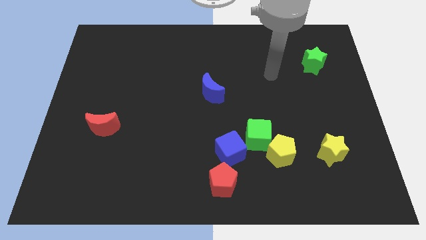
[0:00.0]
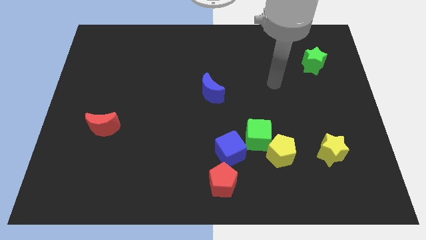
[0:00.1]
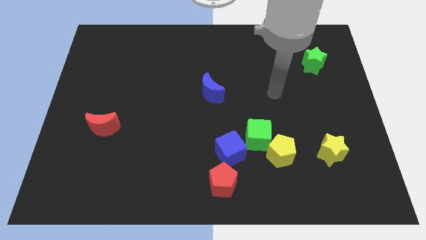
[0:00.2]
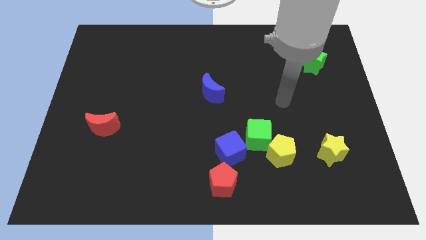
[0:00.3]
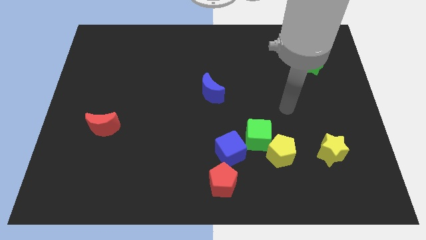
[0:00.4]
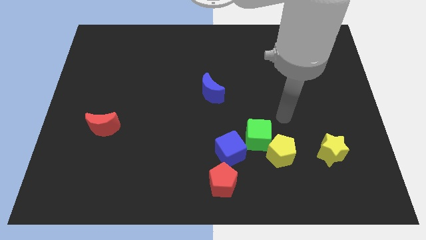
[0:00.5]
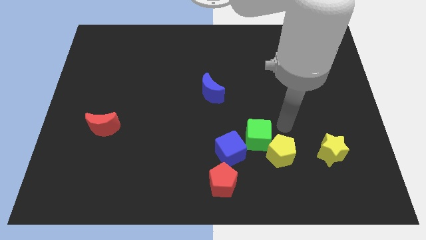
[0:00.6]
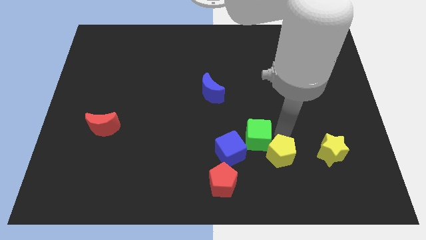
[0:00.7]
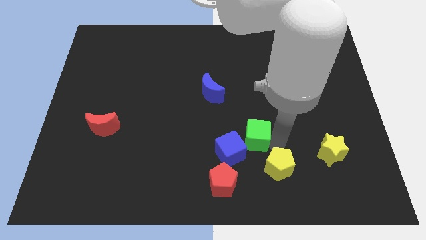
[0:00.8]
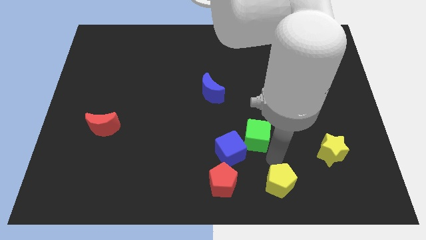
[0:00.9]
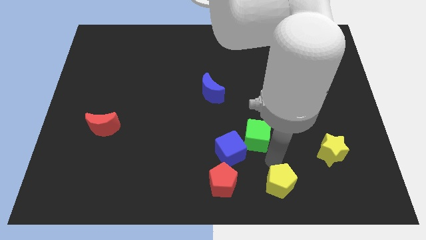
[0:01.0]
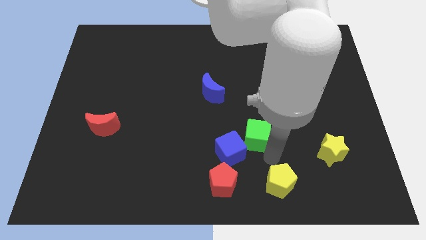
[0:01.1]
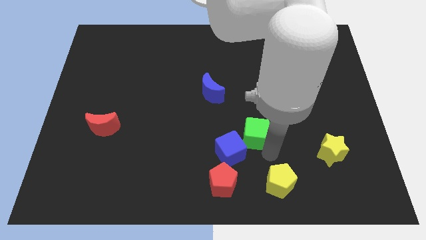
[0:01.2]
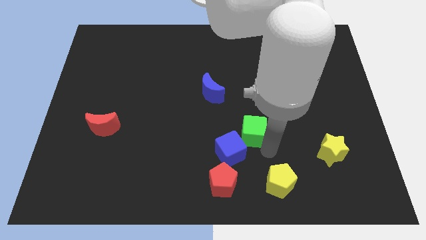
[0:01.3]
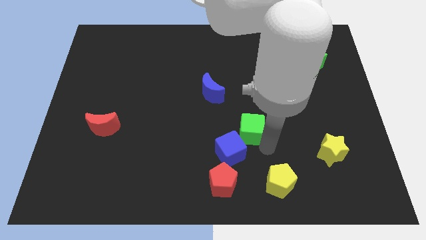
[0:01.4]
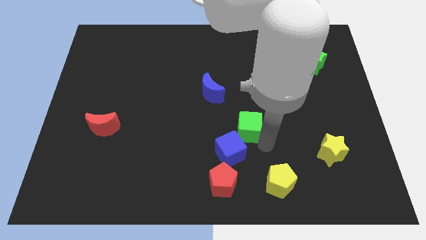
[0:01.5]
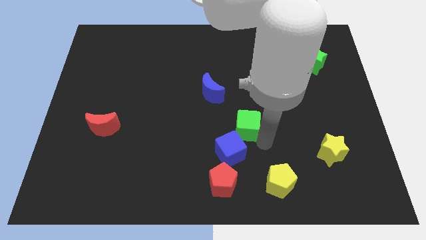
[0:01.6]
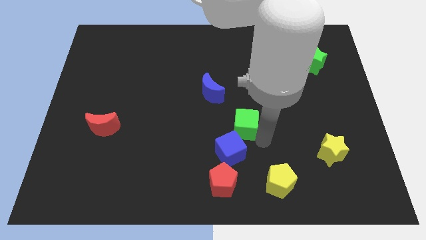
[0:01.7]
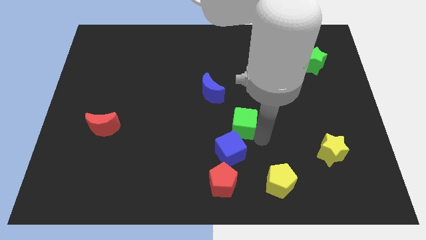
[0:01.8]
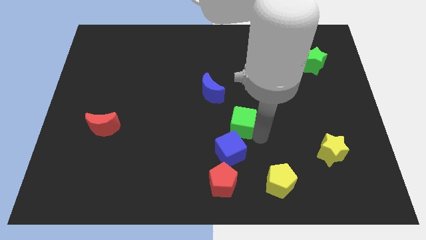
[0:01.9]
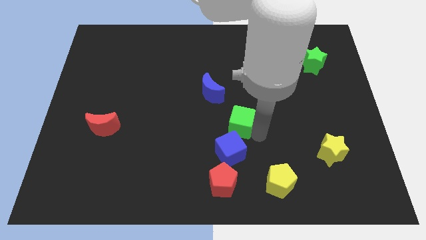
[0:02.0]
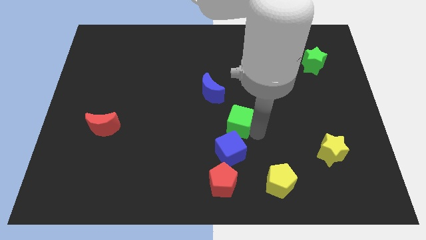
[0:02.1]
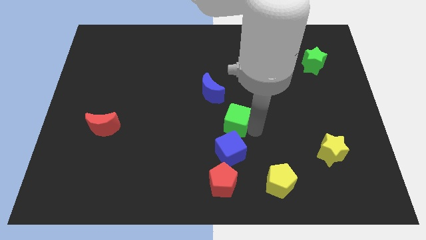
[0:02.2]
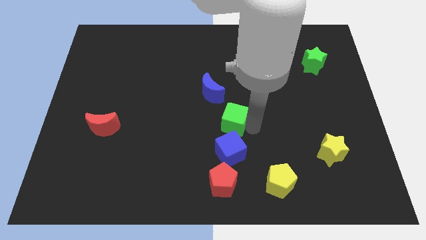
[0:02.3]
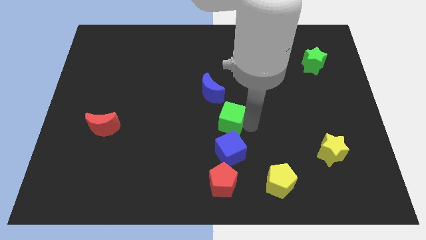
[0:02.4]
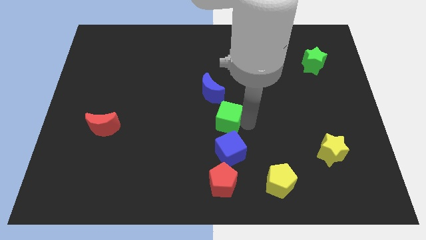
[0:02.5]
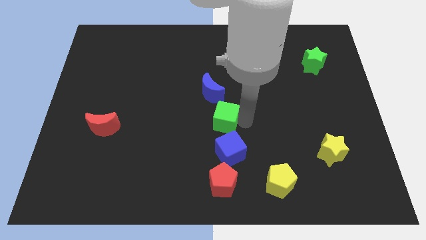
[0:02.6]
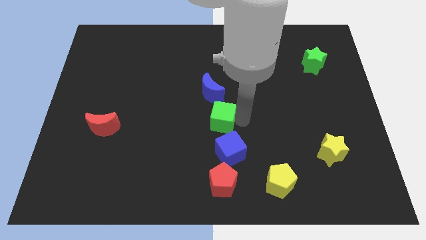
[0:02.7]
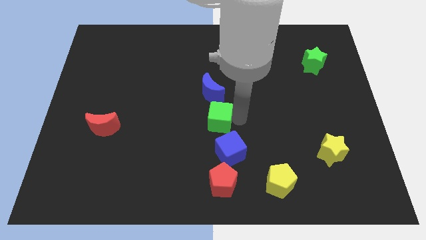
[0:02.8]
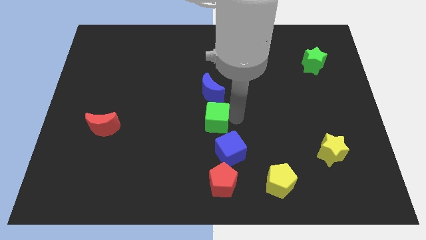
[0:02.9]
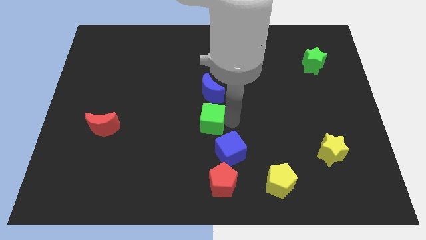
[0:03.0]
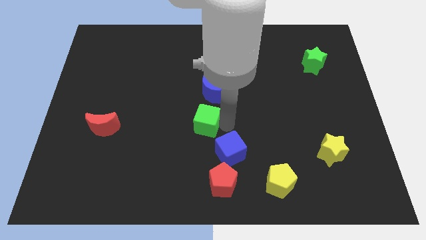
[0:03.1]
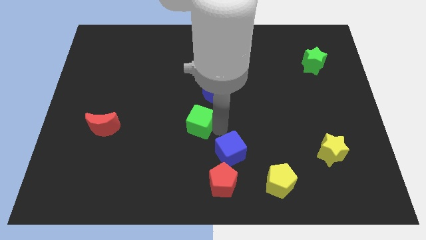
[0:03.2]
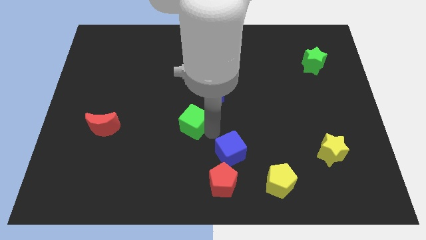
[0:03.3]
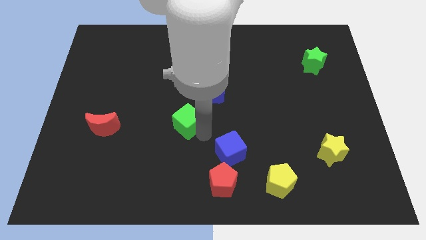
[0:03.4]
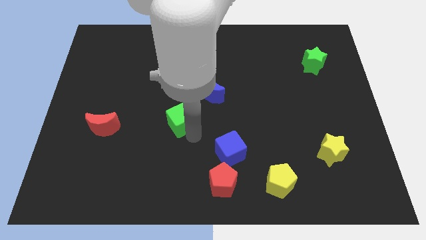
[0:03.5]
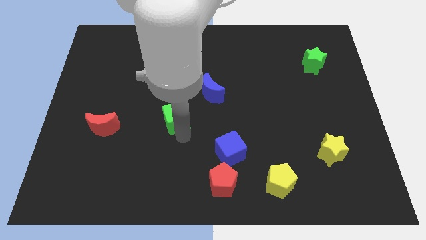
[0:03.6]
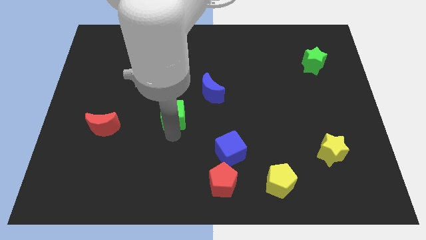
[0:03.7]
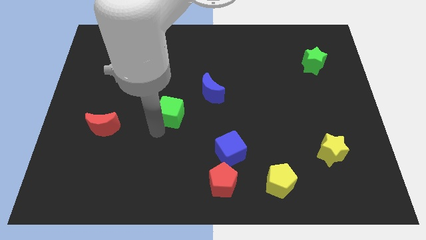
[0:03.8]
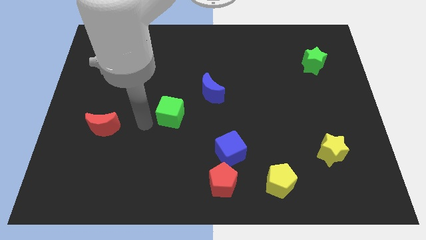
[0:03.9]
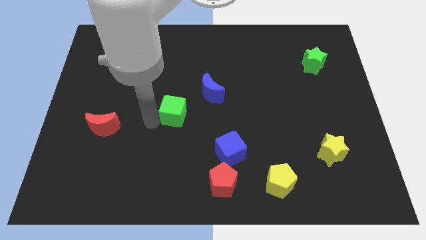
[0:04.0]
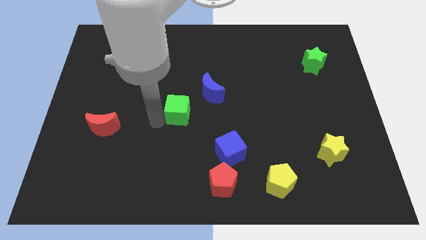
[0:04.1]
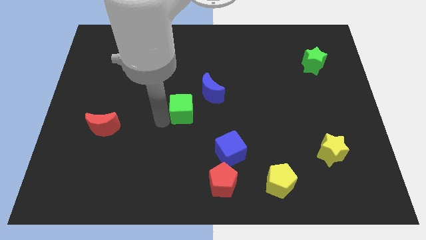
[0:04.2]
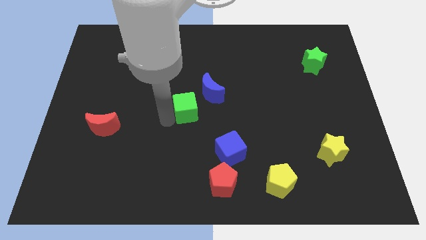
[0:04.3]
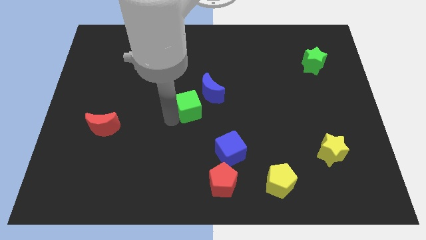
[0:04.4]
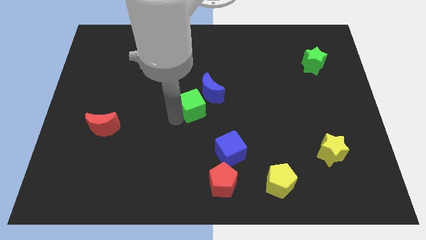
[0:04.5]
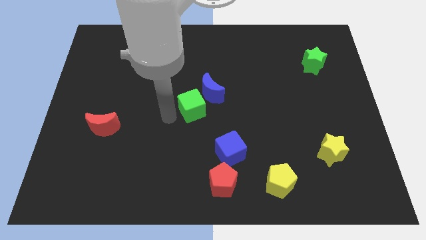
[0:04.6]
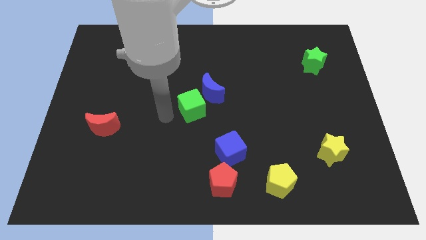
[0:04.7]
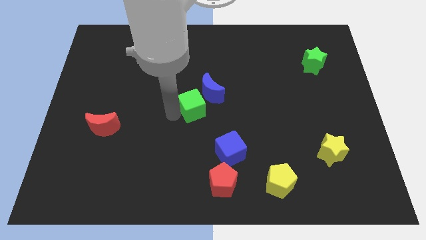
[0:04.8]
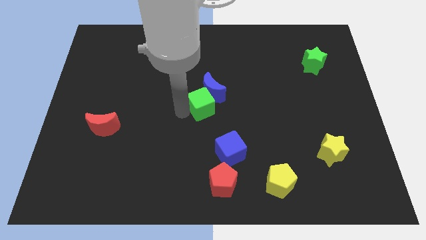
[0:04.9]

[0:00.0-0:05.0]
move the green cube next to the blue moon

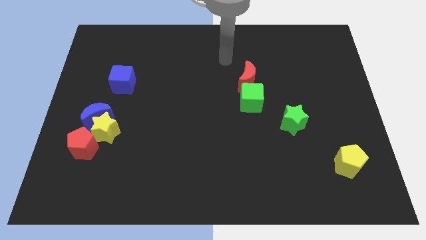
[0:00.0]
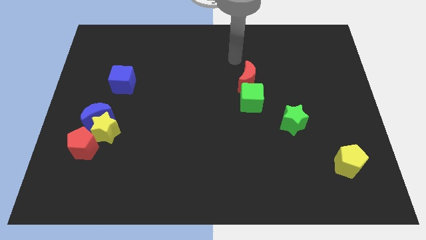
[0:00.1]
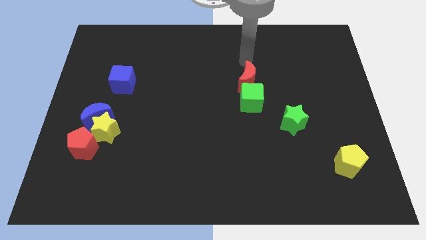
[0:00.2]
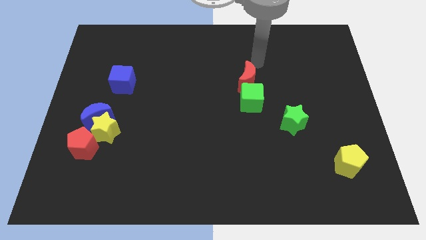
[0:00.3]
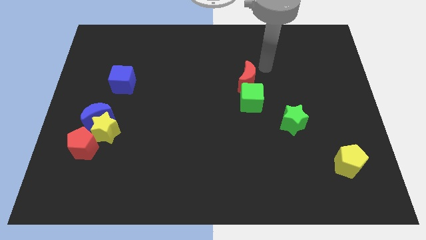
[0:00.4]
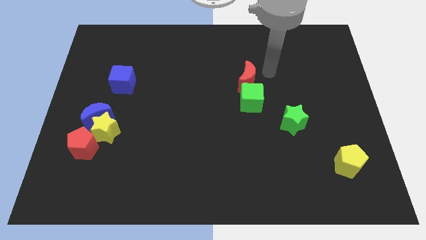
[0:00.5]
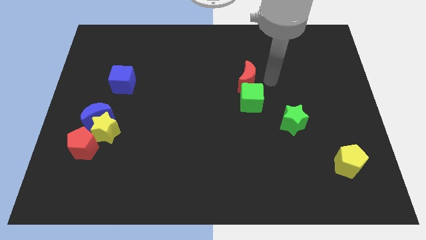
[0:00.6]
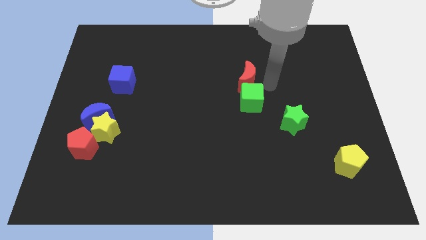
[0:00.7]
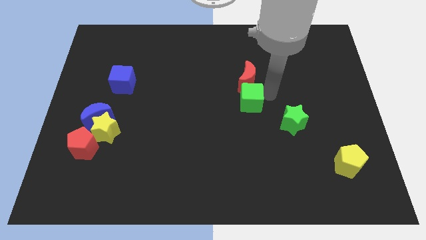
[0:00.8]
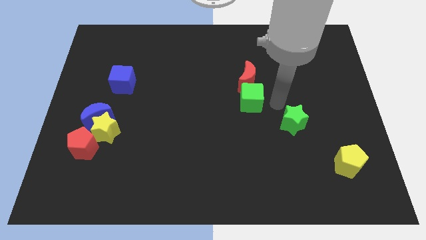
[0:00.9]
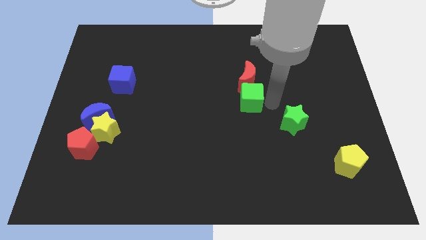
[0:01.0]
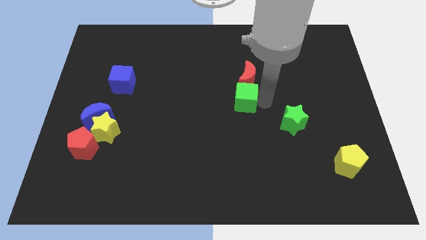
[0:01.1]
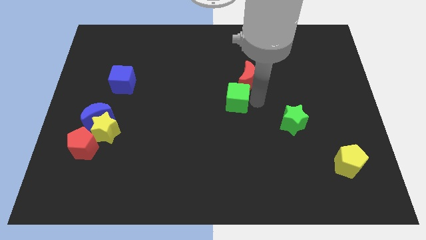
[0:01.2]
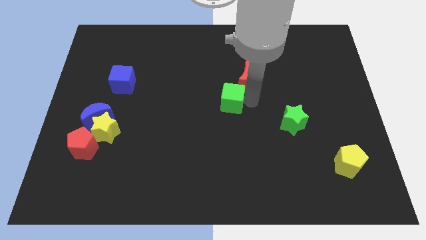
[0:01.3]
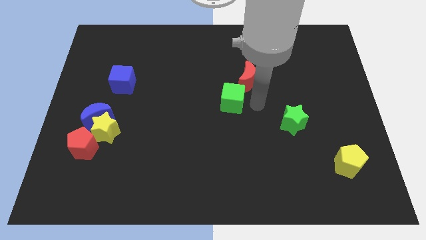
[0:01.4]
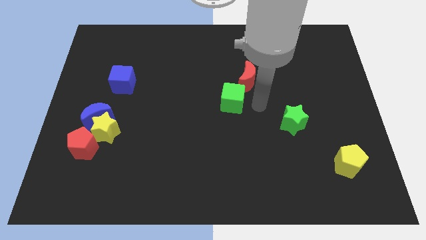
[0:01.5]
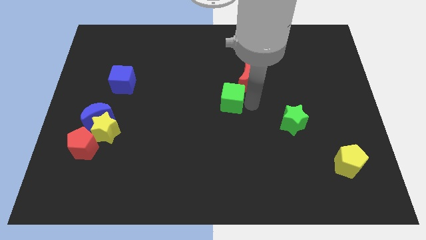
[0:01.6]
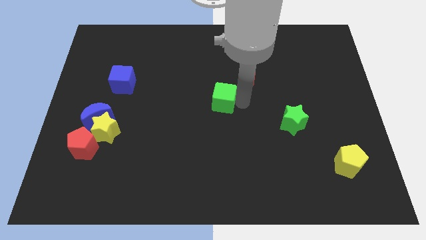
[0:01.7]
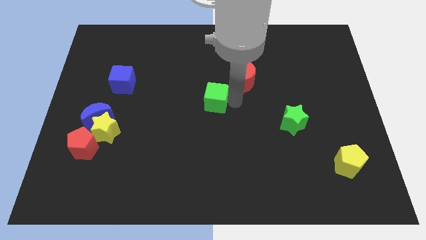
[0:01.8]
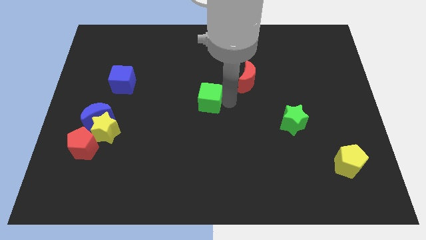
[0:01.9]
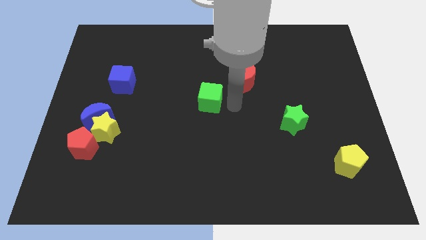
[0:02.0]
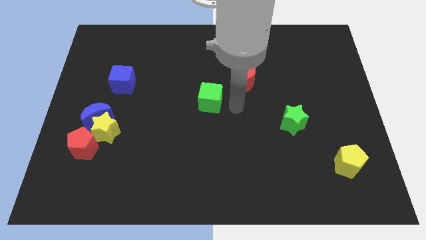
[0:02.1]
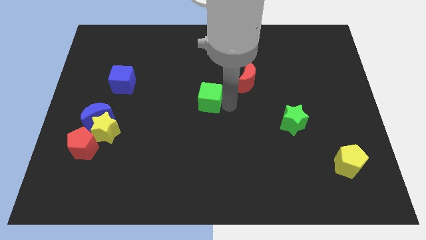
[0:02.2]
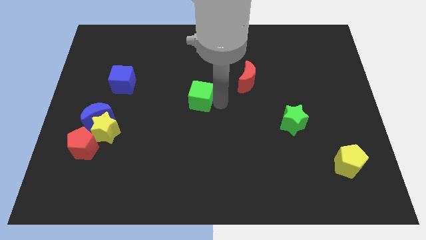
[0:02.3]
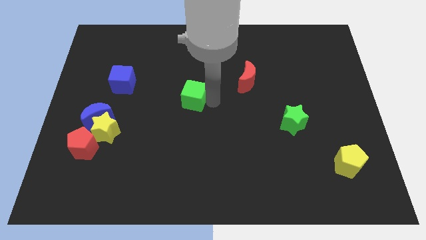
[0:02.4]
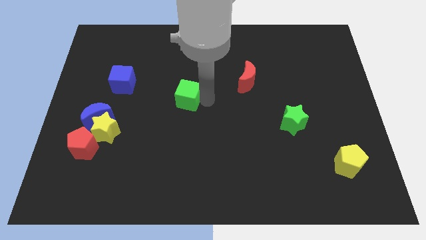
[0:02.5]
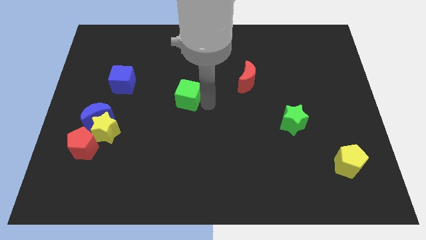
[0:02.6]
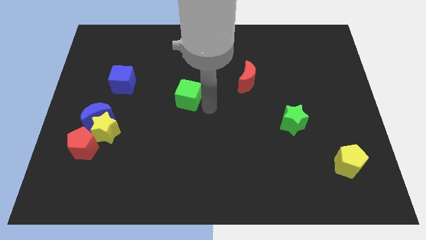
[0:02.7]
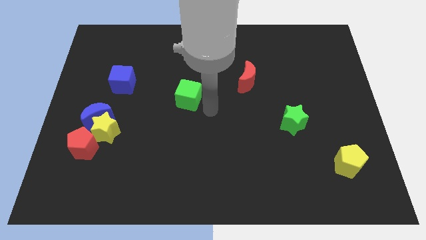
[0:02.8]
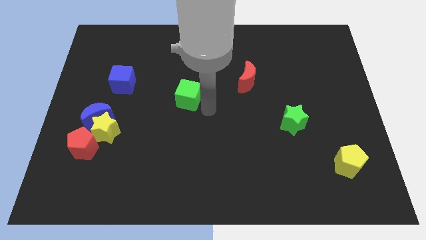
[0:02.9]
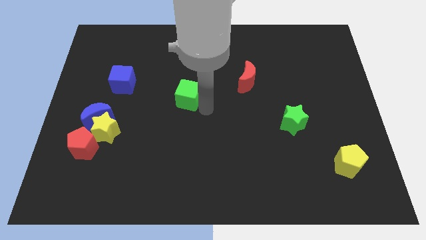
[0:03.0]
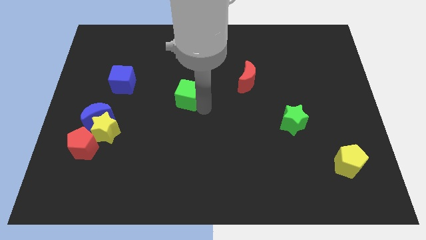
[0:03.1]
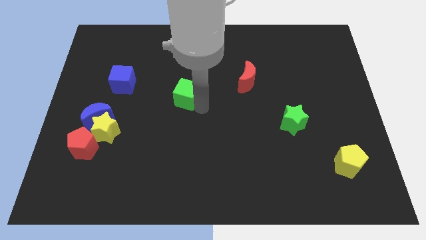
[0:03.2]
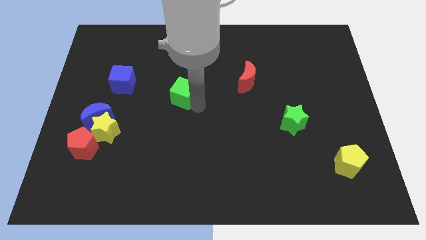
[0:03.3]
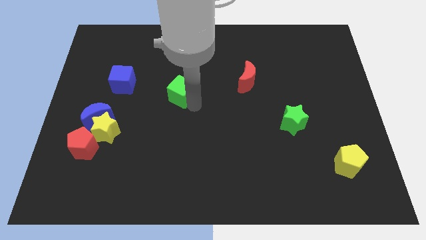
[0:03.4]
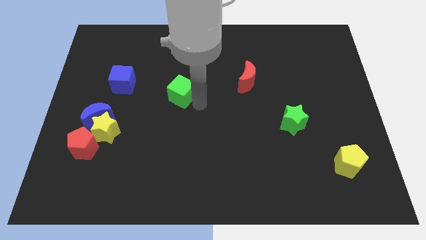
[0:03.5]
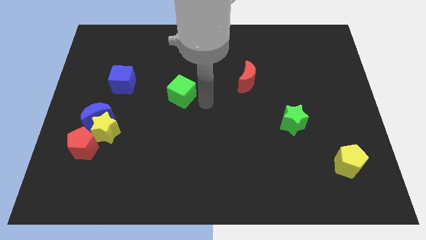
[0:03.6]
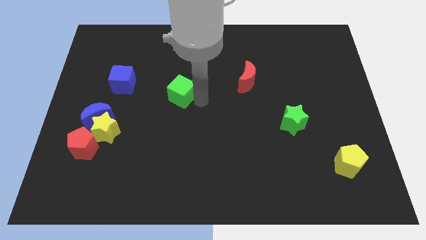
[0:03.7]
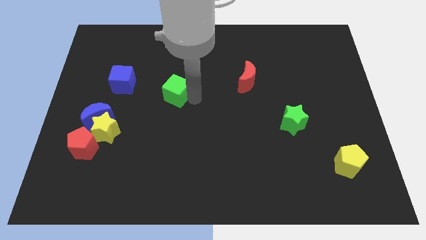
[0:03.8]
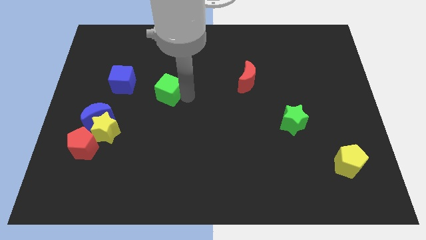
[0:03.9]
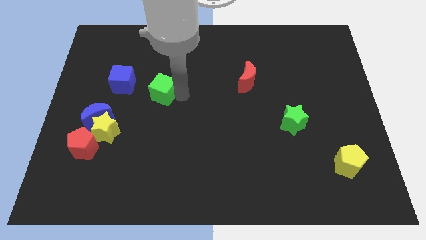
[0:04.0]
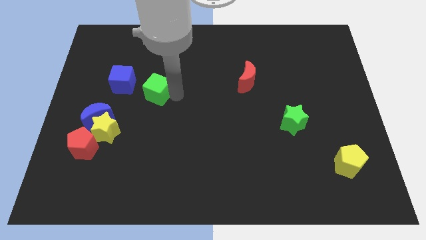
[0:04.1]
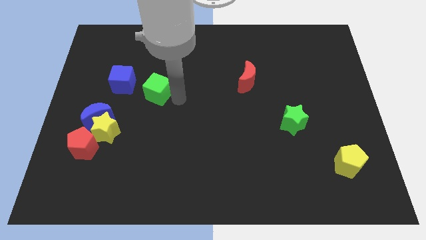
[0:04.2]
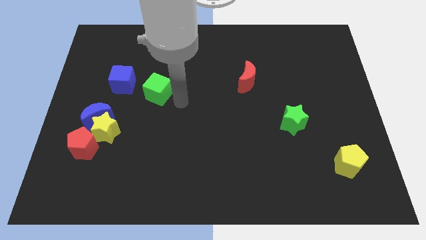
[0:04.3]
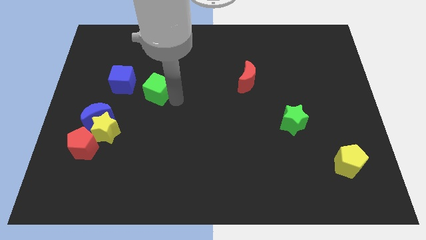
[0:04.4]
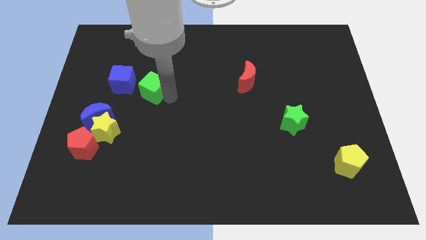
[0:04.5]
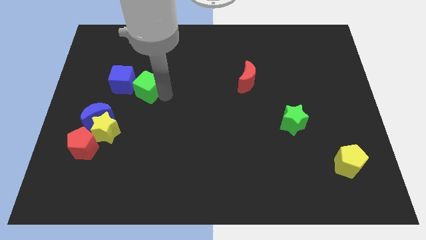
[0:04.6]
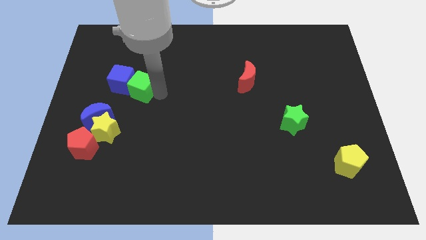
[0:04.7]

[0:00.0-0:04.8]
move the green cube towards the blue cube
